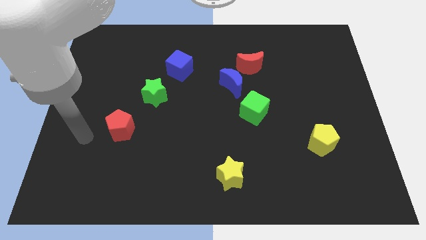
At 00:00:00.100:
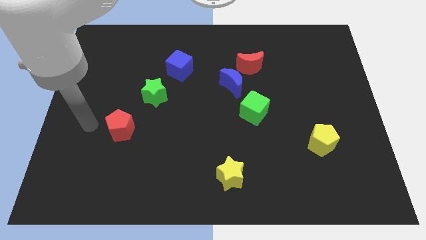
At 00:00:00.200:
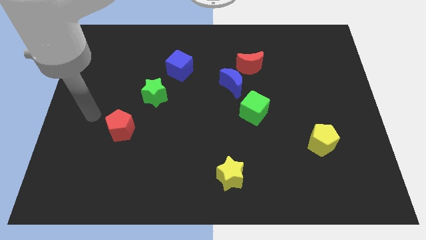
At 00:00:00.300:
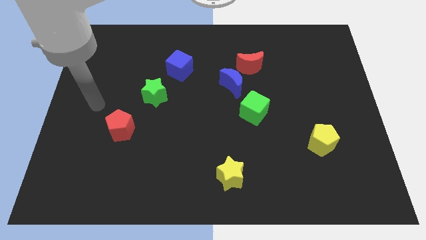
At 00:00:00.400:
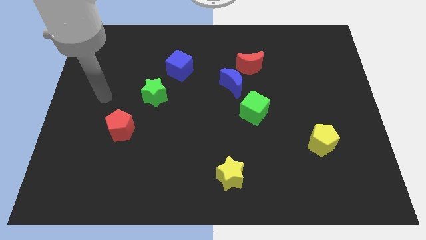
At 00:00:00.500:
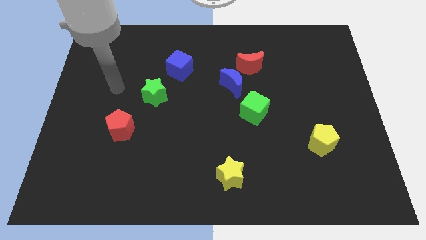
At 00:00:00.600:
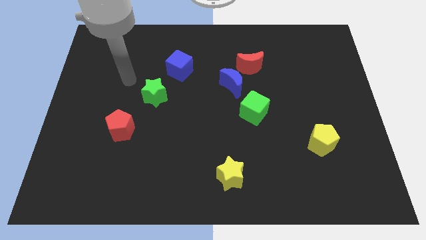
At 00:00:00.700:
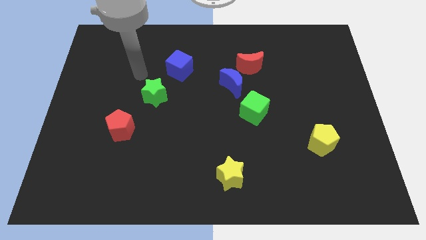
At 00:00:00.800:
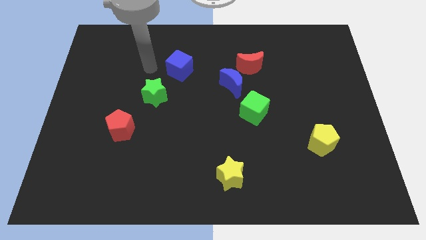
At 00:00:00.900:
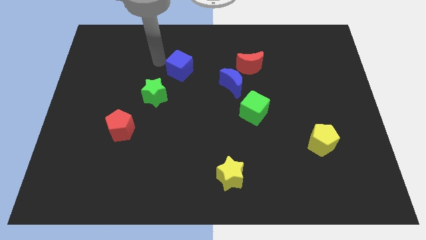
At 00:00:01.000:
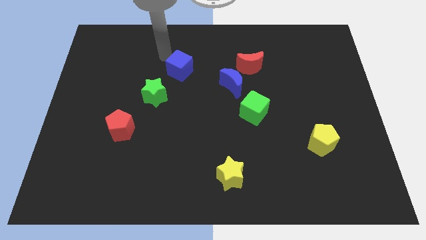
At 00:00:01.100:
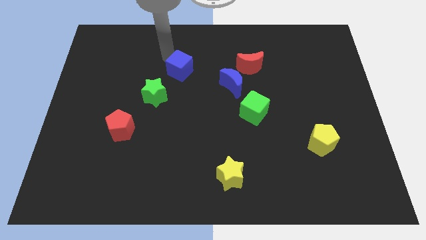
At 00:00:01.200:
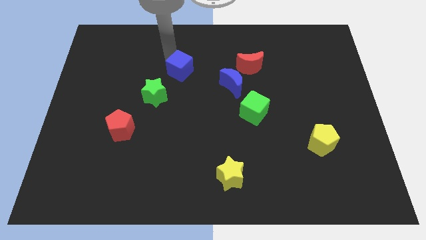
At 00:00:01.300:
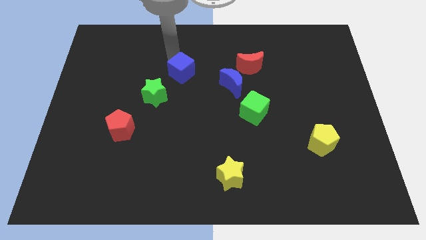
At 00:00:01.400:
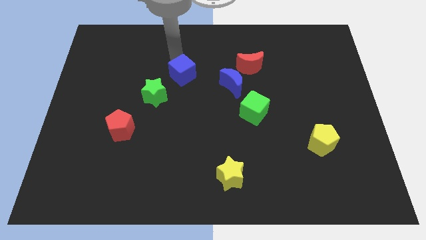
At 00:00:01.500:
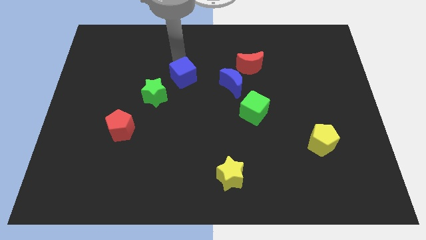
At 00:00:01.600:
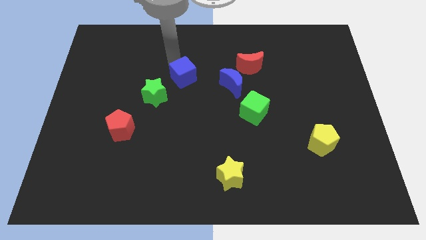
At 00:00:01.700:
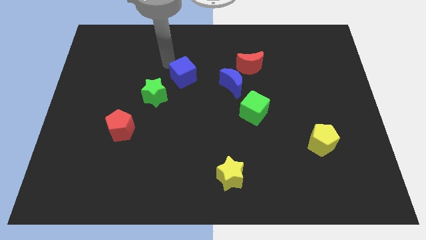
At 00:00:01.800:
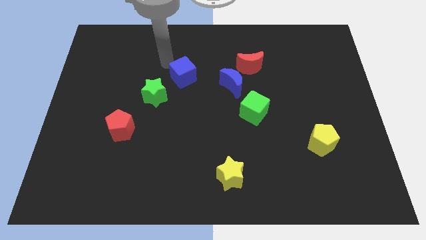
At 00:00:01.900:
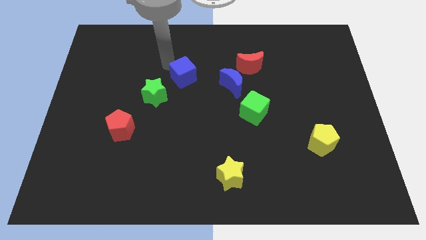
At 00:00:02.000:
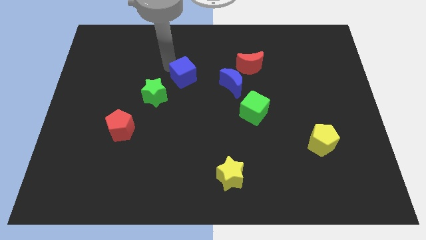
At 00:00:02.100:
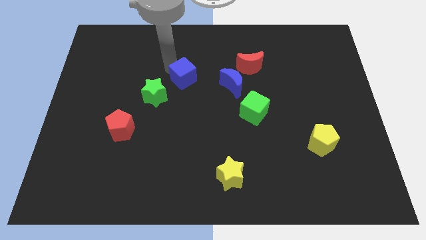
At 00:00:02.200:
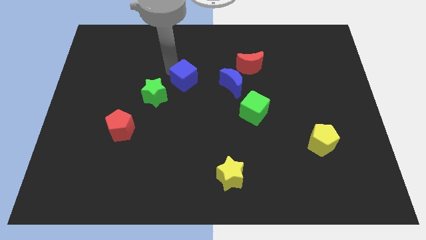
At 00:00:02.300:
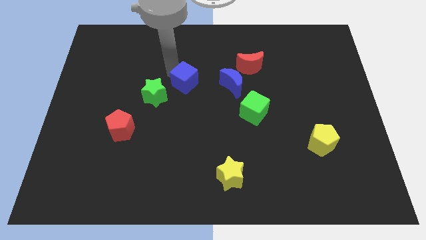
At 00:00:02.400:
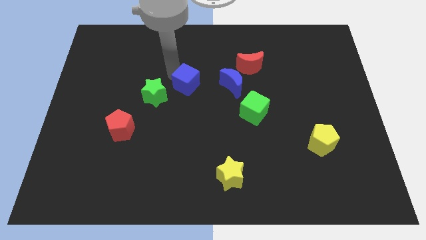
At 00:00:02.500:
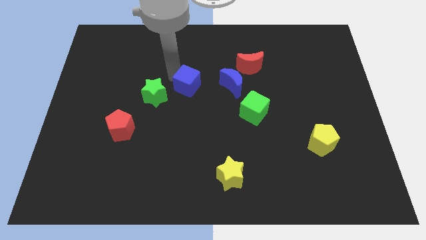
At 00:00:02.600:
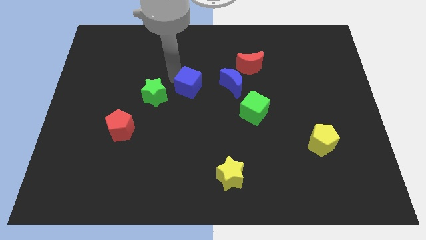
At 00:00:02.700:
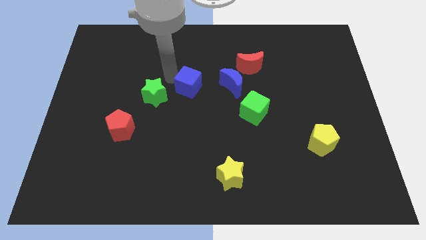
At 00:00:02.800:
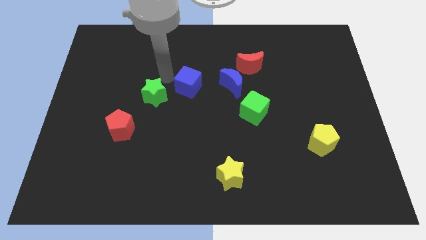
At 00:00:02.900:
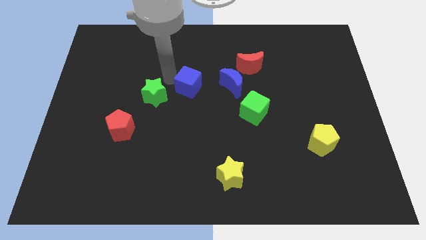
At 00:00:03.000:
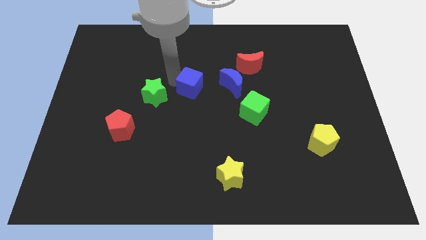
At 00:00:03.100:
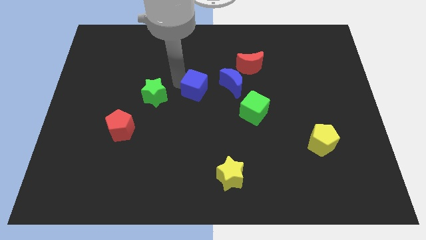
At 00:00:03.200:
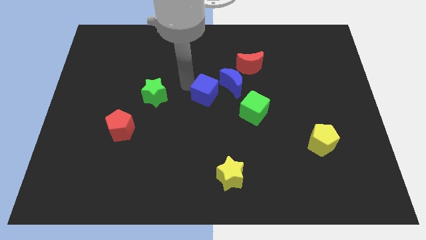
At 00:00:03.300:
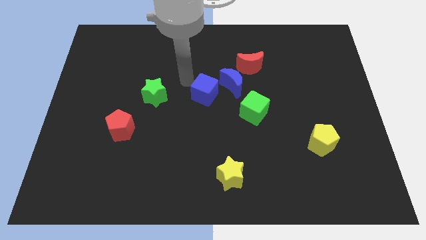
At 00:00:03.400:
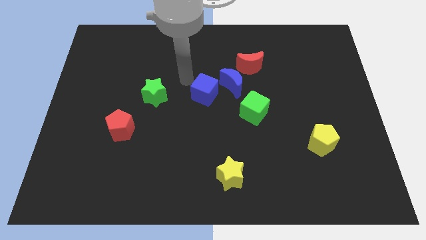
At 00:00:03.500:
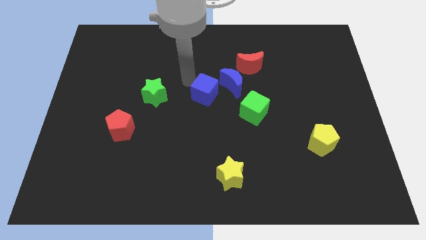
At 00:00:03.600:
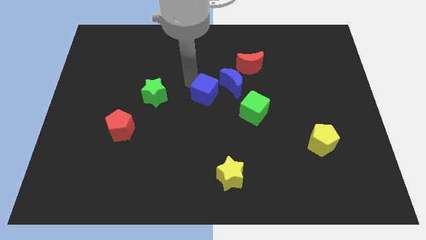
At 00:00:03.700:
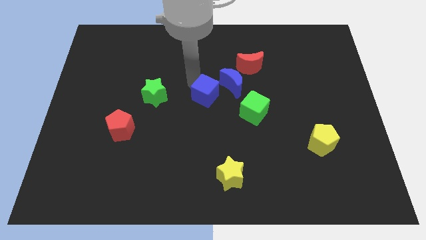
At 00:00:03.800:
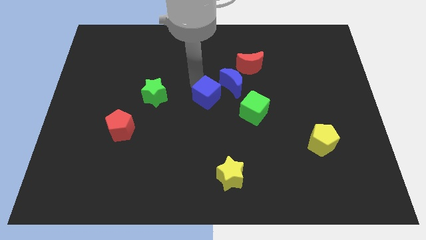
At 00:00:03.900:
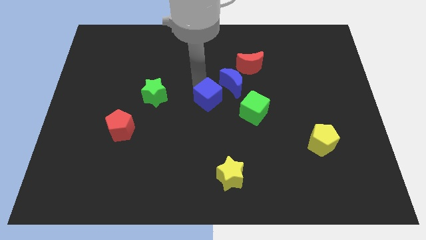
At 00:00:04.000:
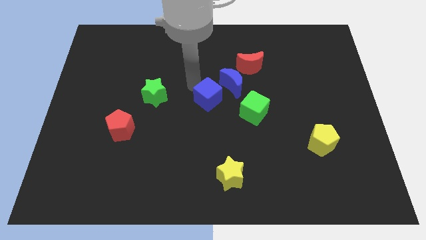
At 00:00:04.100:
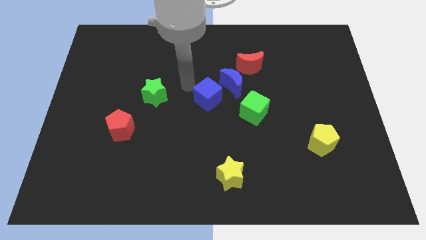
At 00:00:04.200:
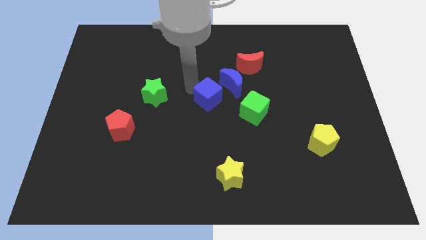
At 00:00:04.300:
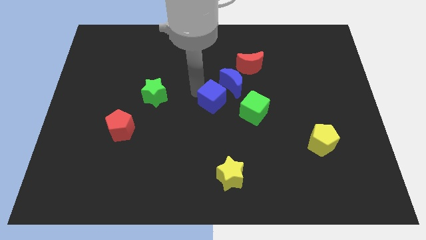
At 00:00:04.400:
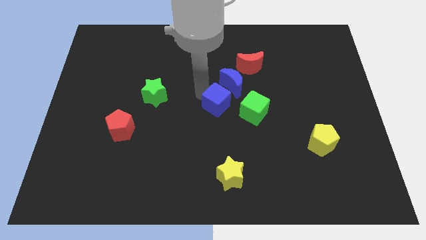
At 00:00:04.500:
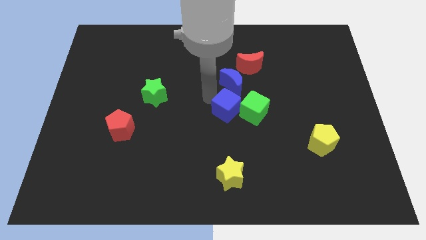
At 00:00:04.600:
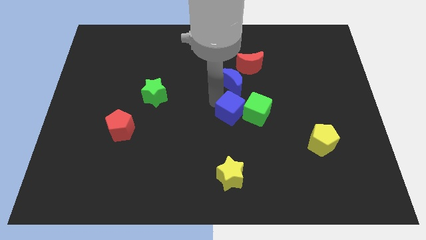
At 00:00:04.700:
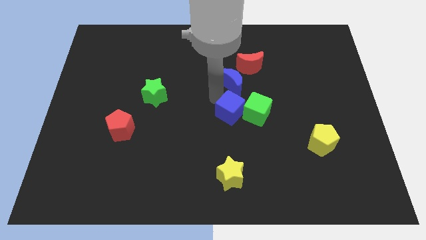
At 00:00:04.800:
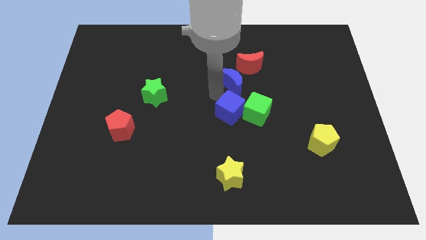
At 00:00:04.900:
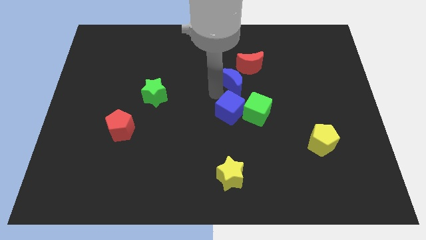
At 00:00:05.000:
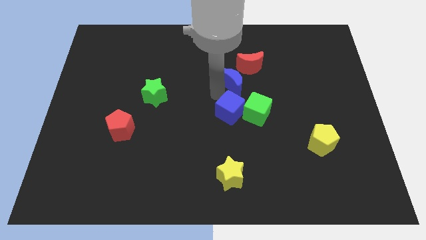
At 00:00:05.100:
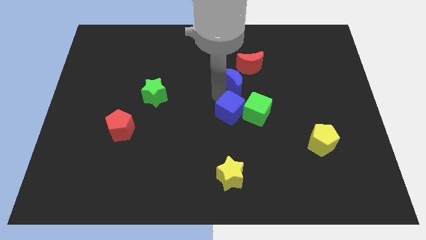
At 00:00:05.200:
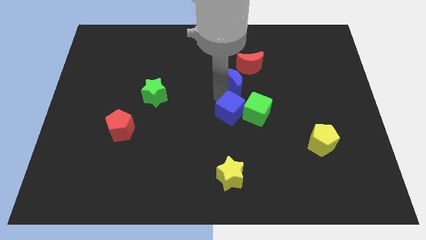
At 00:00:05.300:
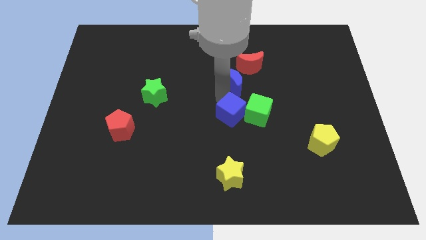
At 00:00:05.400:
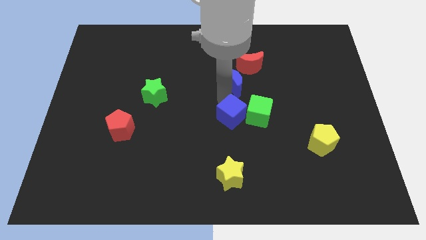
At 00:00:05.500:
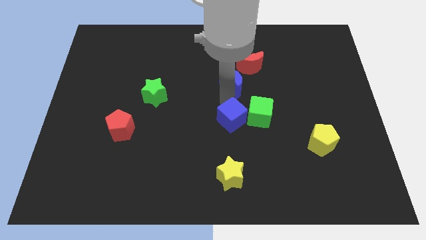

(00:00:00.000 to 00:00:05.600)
push the blue cube downwards and to the right diagonally

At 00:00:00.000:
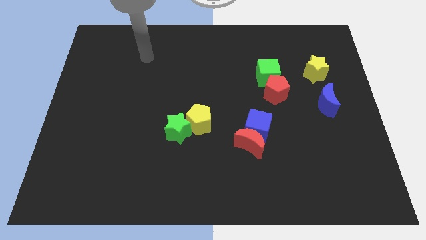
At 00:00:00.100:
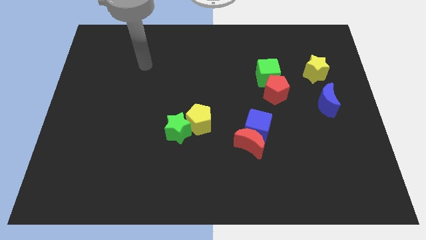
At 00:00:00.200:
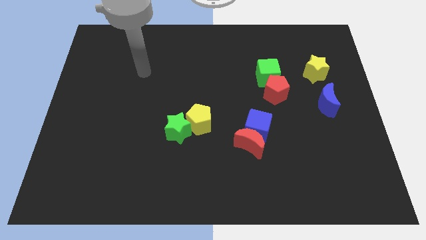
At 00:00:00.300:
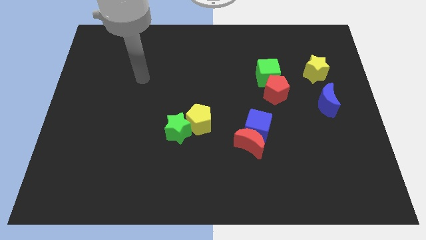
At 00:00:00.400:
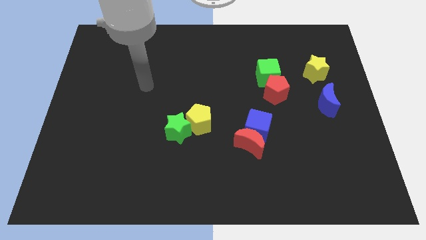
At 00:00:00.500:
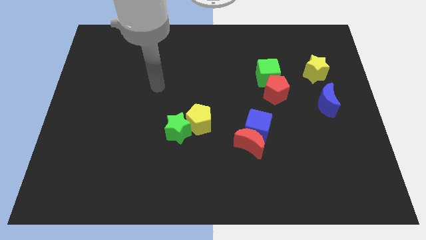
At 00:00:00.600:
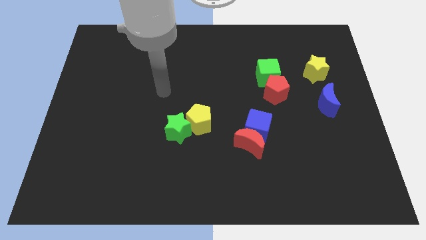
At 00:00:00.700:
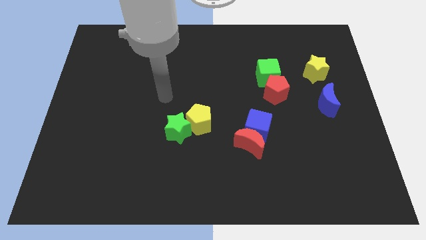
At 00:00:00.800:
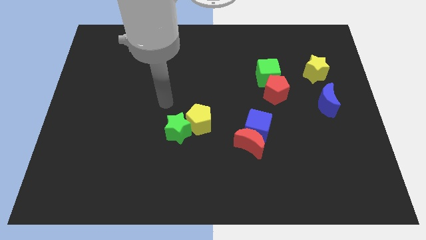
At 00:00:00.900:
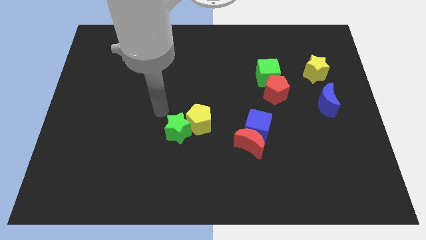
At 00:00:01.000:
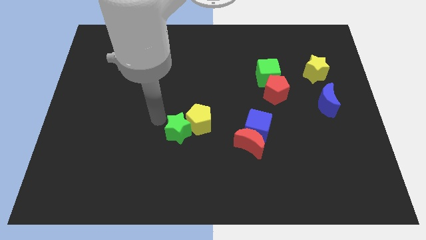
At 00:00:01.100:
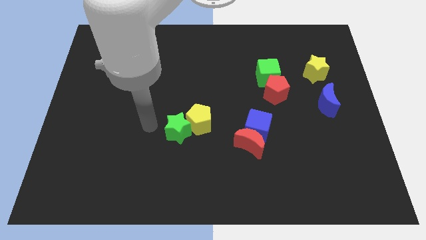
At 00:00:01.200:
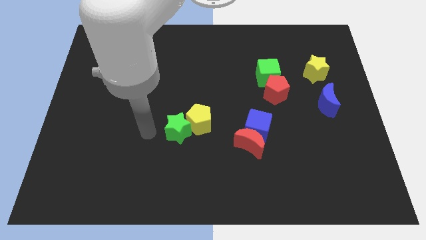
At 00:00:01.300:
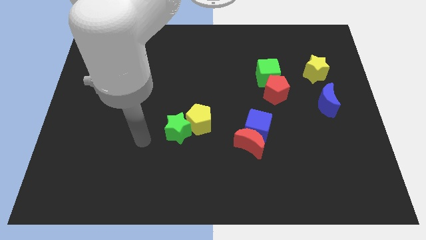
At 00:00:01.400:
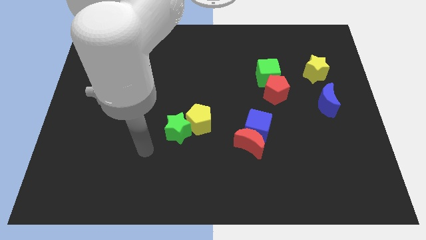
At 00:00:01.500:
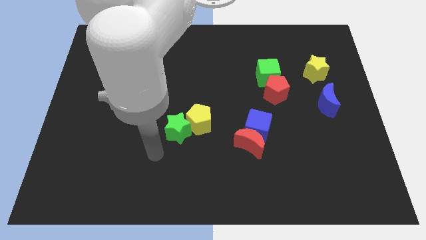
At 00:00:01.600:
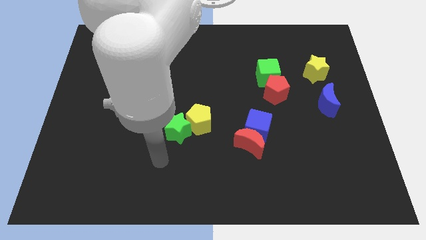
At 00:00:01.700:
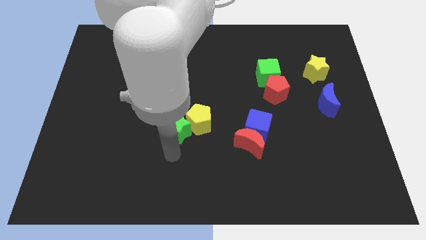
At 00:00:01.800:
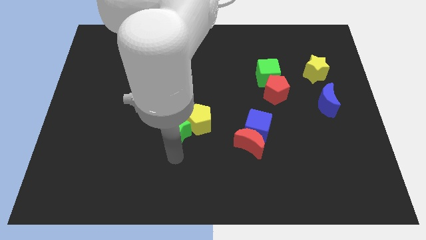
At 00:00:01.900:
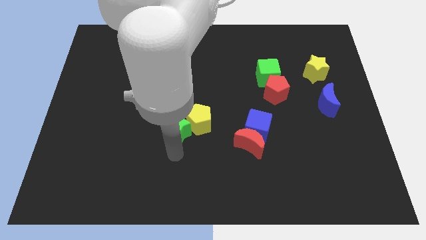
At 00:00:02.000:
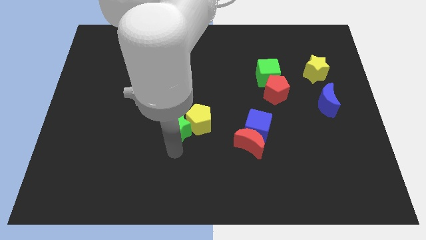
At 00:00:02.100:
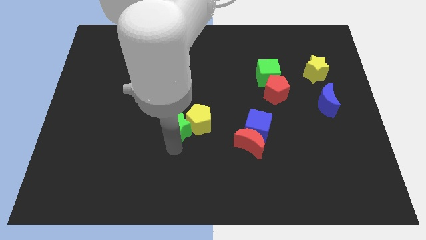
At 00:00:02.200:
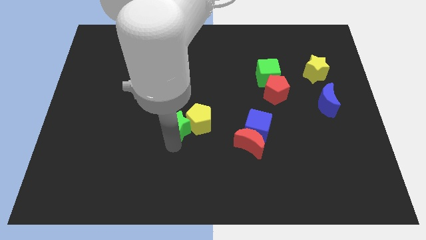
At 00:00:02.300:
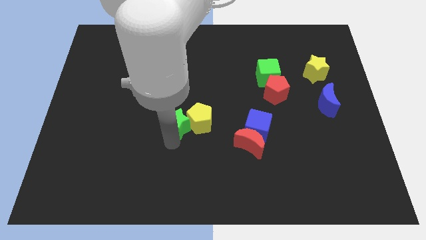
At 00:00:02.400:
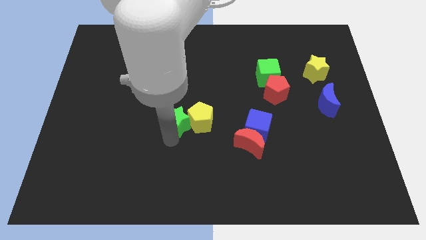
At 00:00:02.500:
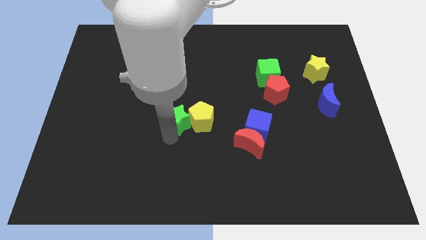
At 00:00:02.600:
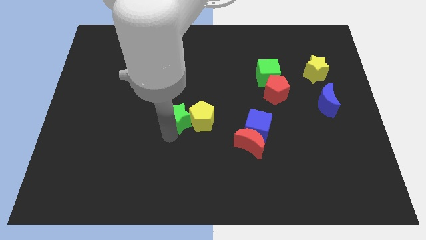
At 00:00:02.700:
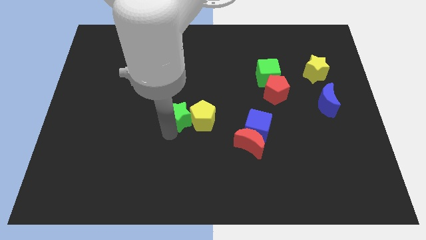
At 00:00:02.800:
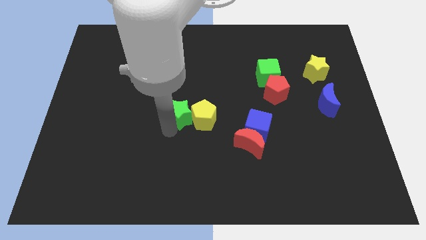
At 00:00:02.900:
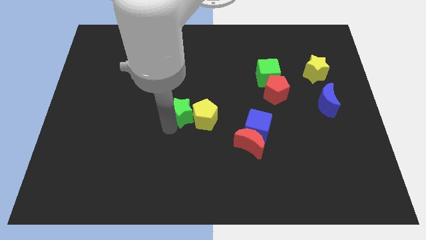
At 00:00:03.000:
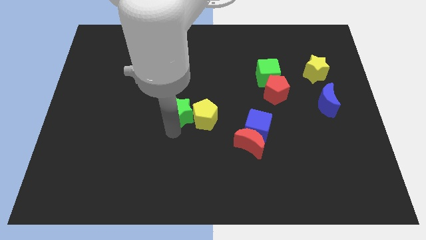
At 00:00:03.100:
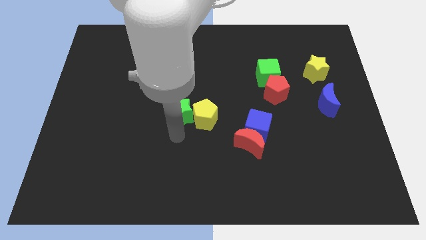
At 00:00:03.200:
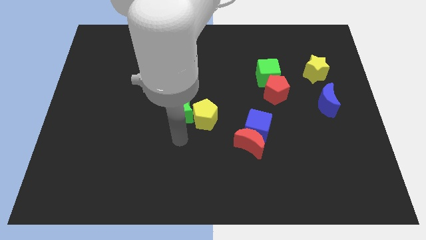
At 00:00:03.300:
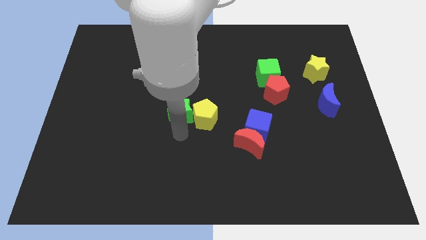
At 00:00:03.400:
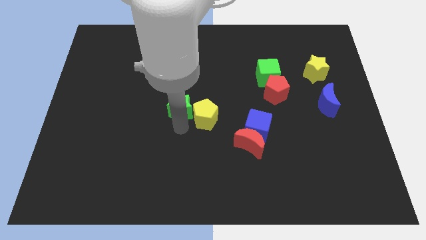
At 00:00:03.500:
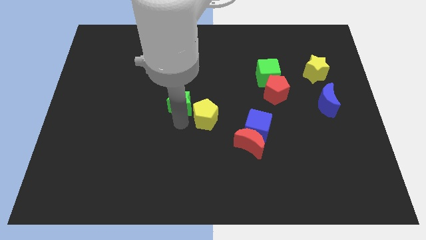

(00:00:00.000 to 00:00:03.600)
slightly slide the green star upwards
